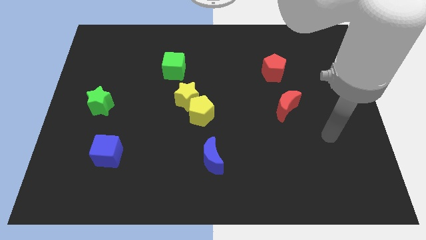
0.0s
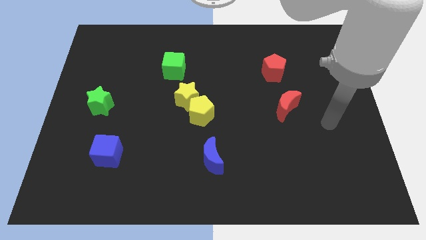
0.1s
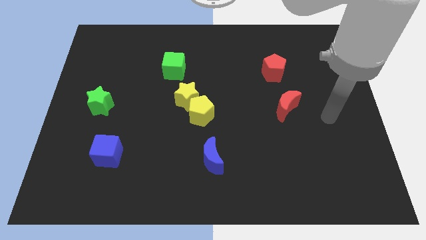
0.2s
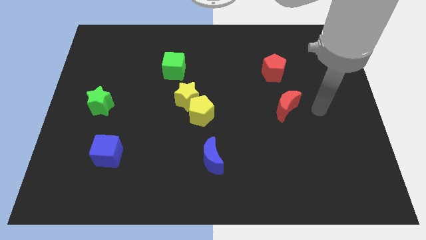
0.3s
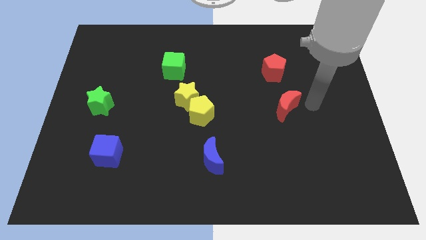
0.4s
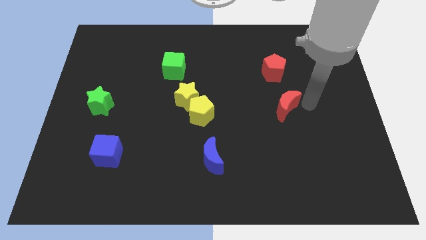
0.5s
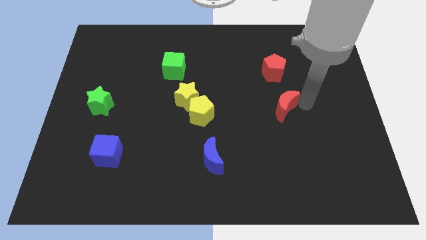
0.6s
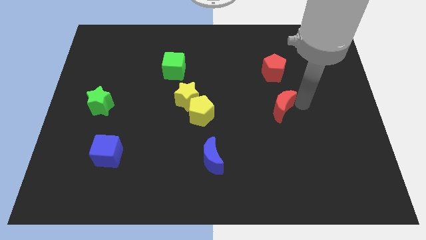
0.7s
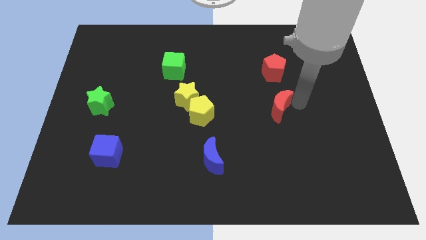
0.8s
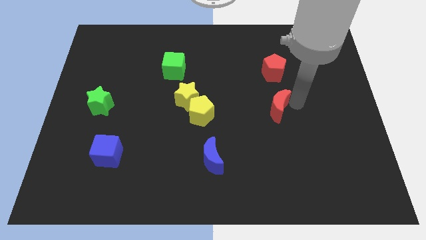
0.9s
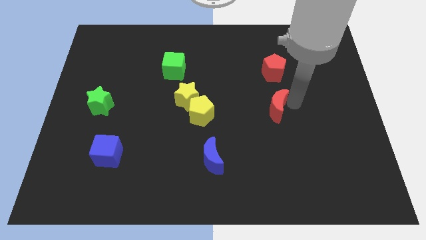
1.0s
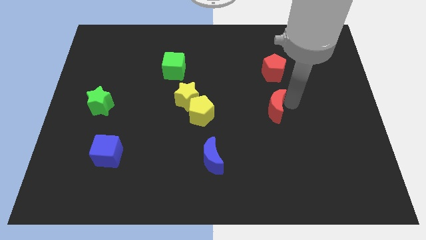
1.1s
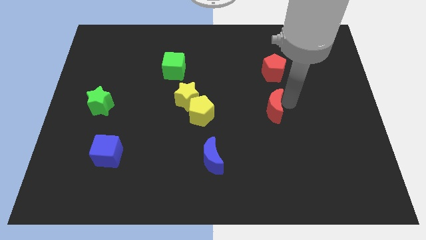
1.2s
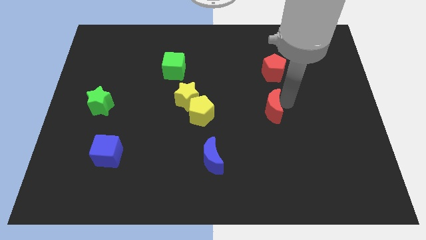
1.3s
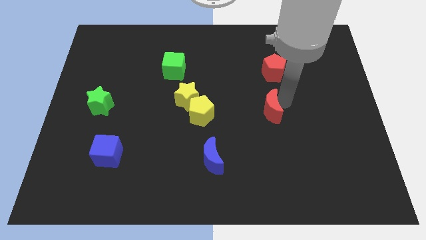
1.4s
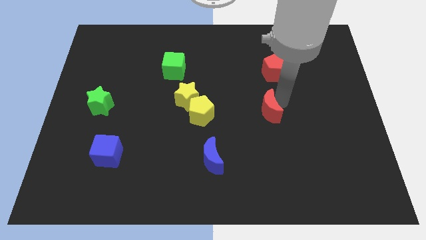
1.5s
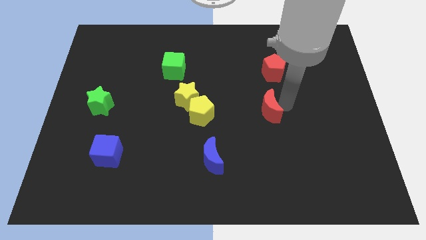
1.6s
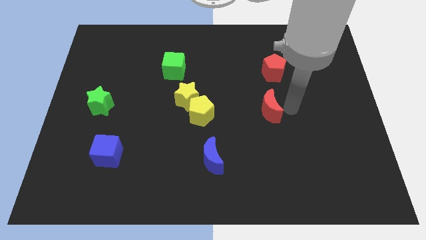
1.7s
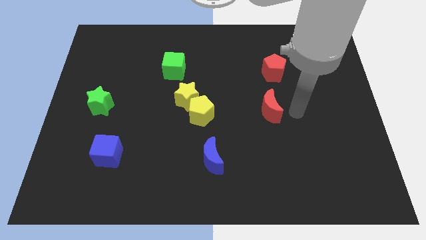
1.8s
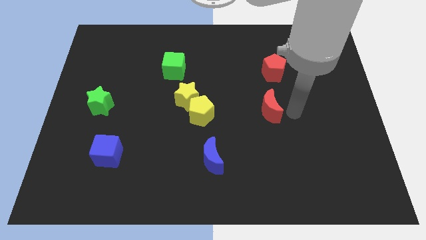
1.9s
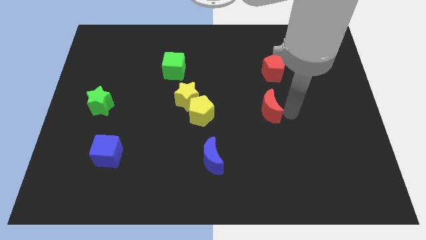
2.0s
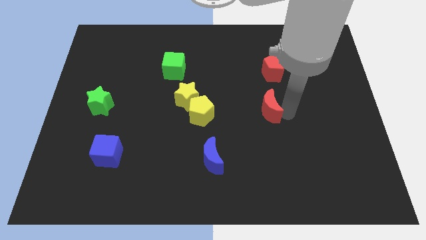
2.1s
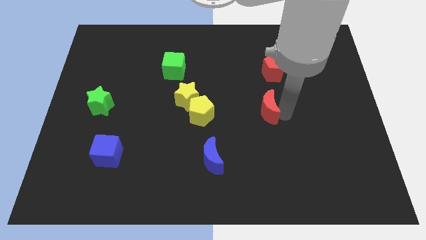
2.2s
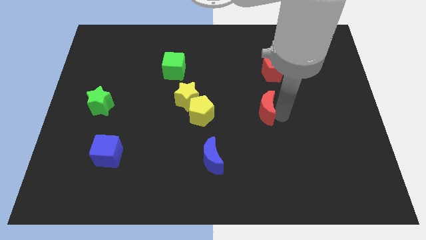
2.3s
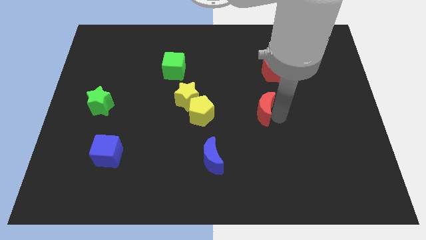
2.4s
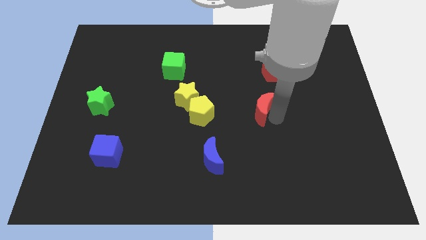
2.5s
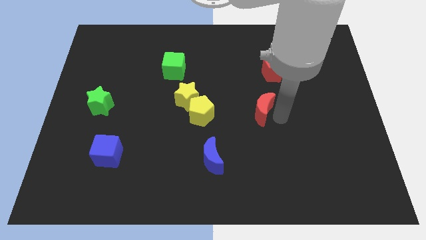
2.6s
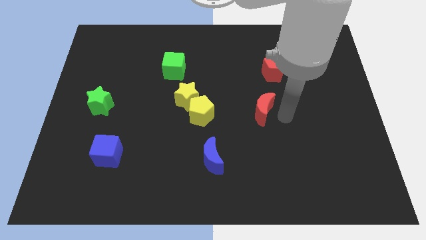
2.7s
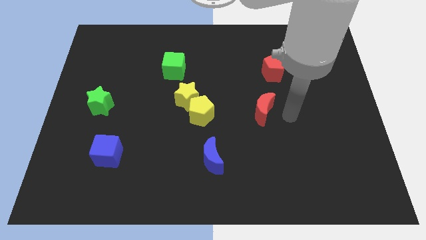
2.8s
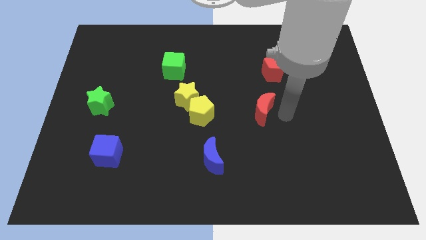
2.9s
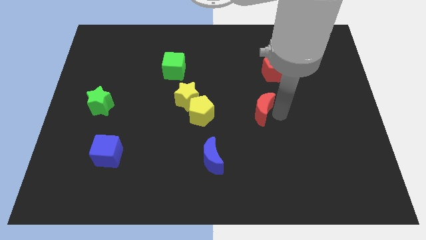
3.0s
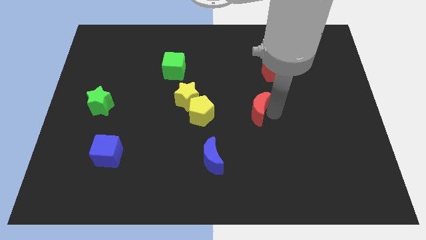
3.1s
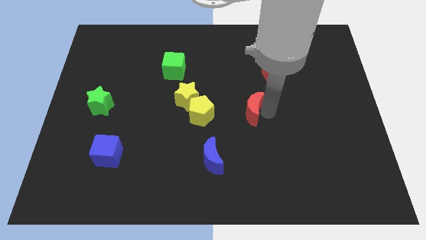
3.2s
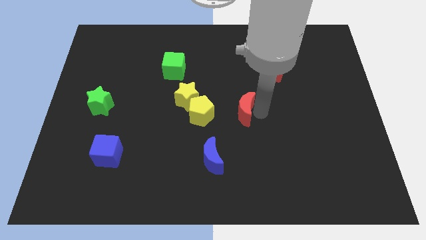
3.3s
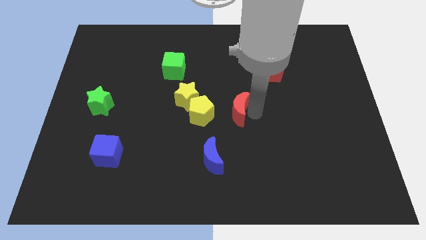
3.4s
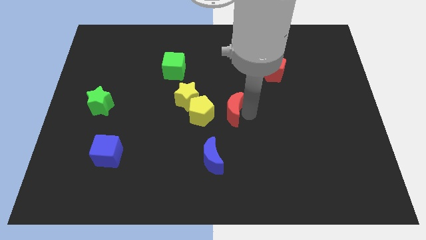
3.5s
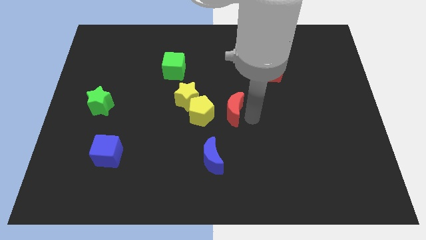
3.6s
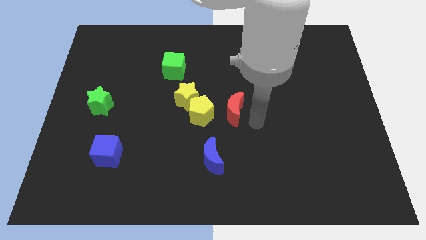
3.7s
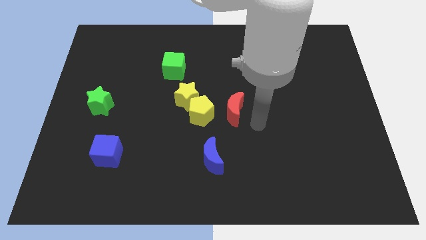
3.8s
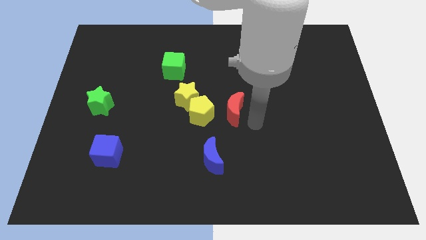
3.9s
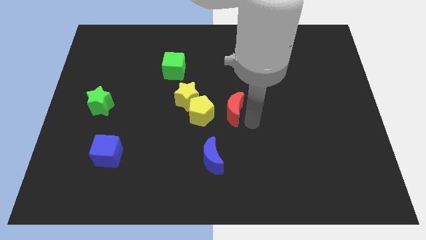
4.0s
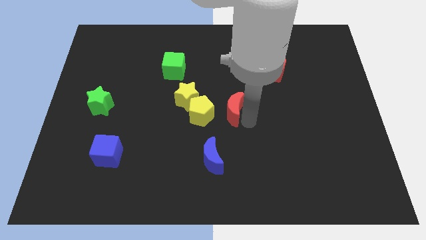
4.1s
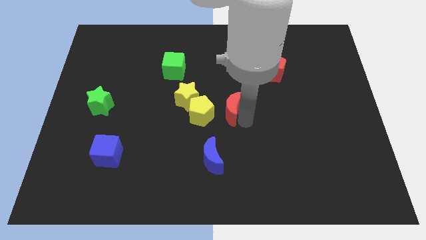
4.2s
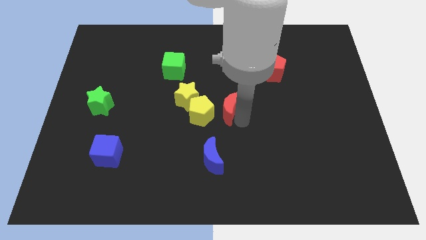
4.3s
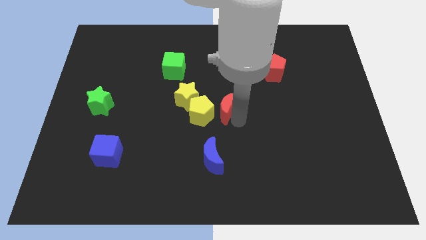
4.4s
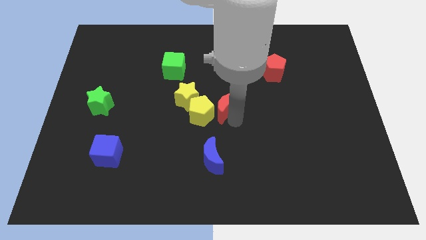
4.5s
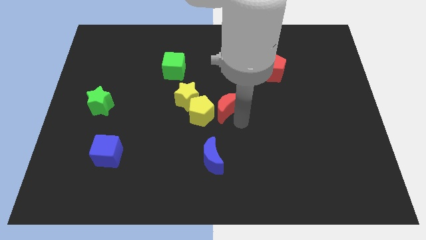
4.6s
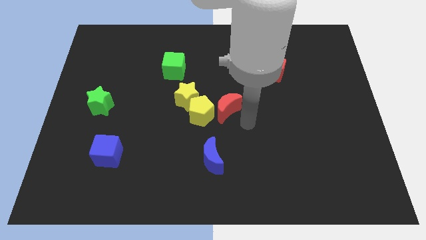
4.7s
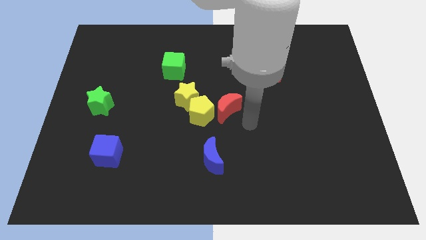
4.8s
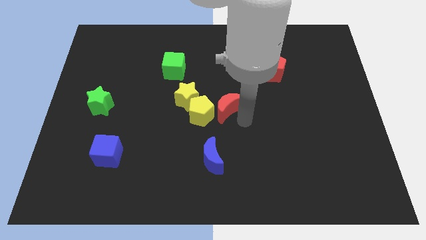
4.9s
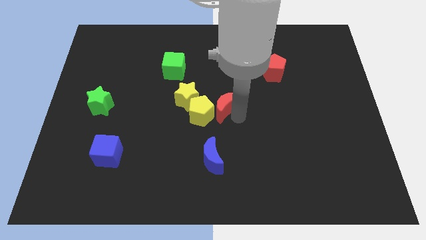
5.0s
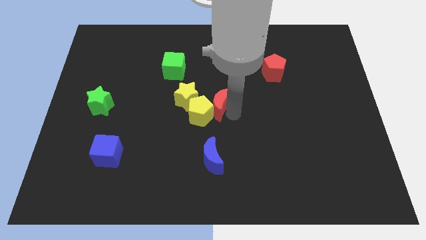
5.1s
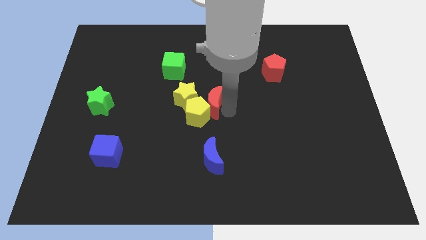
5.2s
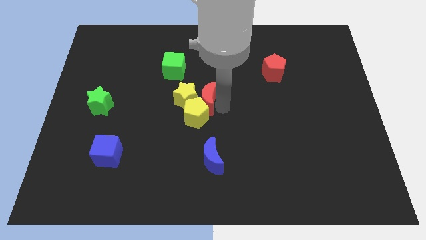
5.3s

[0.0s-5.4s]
slide the red moon next to the yellow star

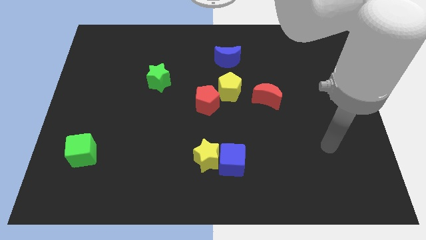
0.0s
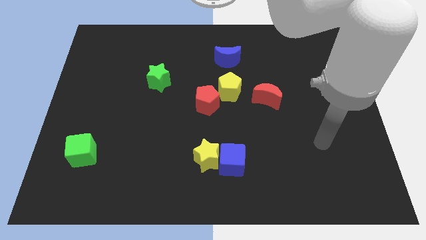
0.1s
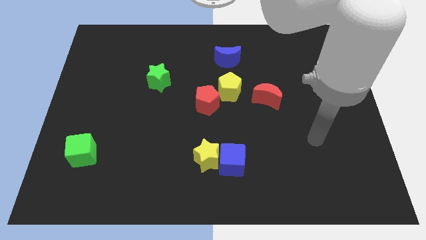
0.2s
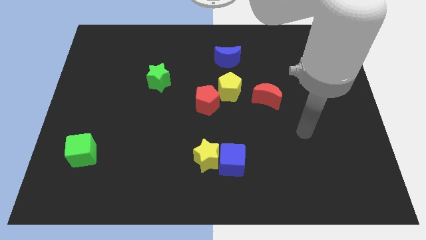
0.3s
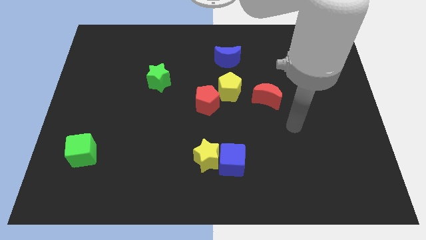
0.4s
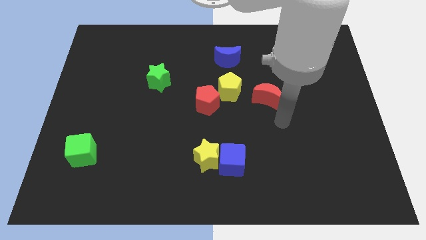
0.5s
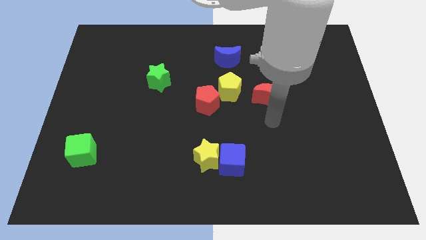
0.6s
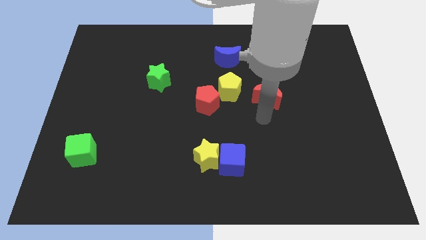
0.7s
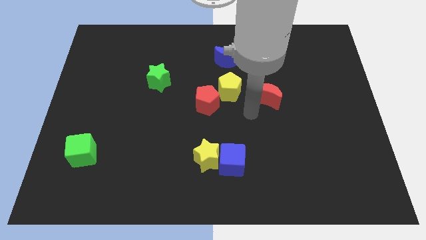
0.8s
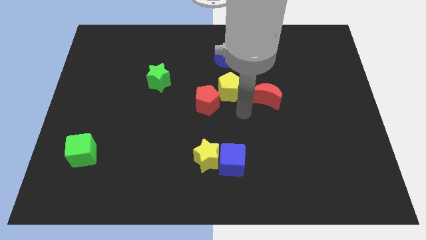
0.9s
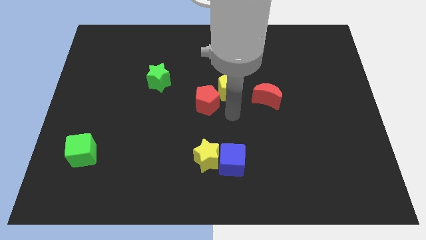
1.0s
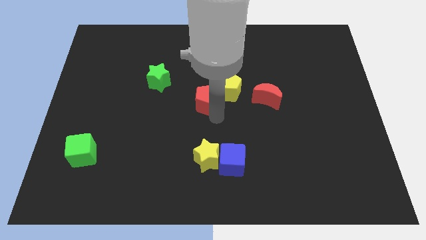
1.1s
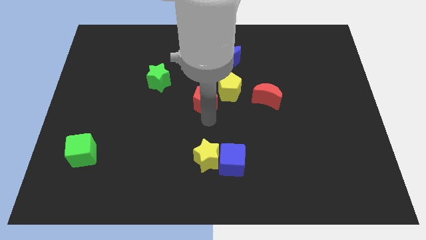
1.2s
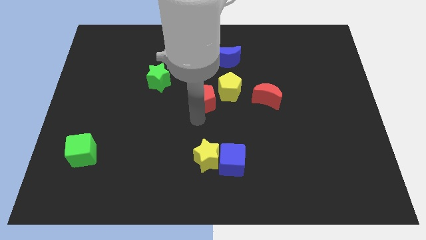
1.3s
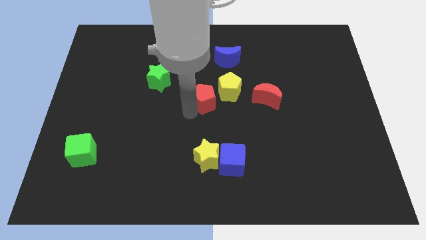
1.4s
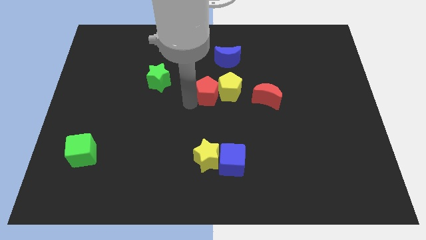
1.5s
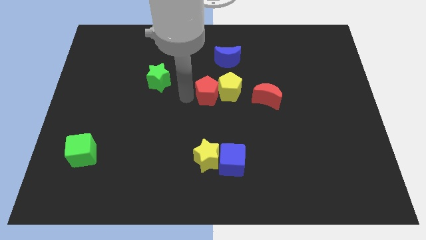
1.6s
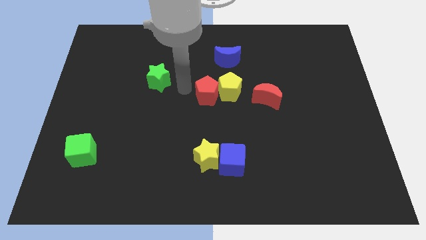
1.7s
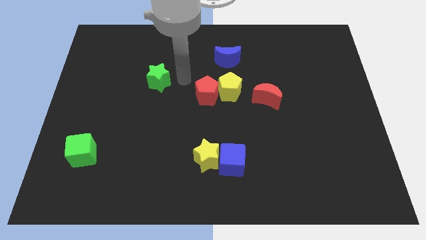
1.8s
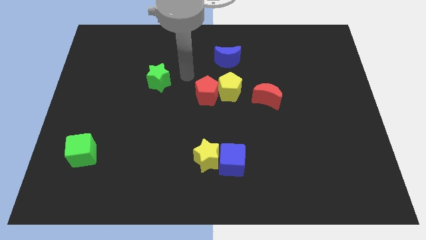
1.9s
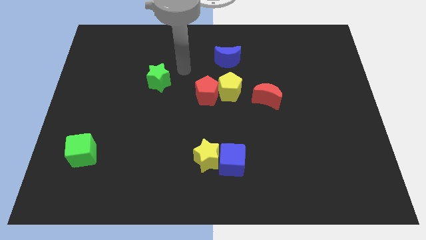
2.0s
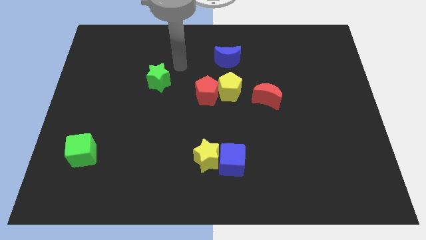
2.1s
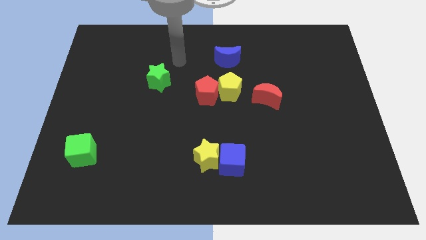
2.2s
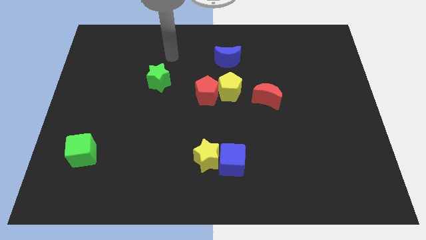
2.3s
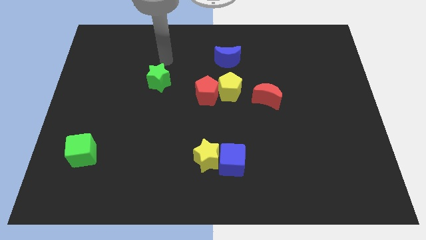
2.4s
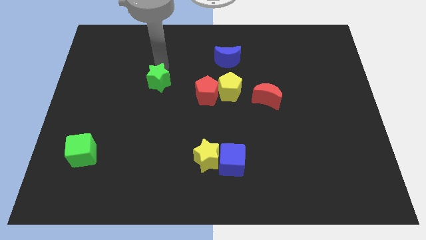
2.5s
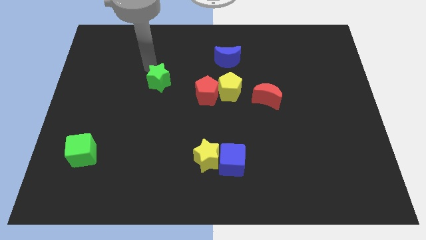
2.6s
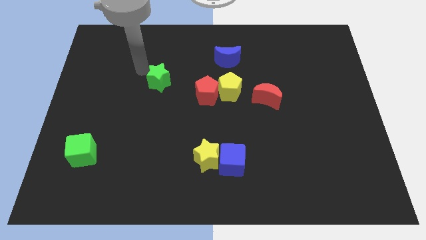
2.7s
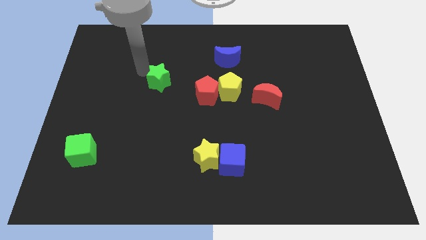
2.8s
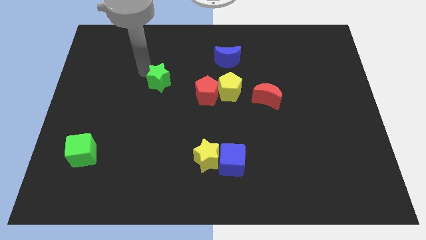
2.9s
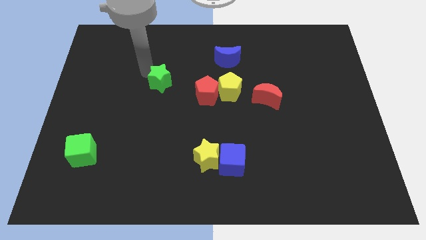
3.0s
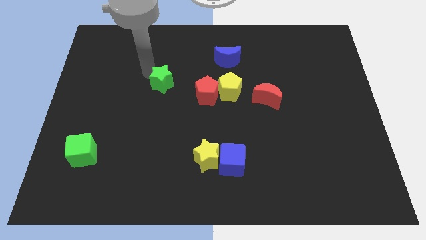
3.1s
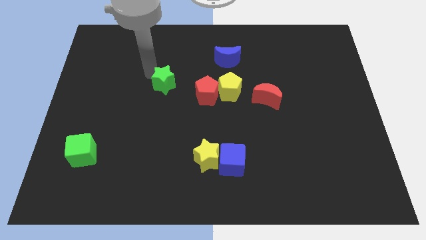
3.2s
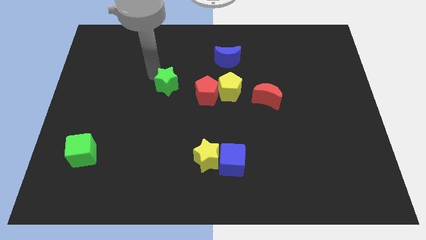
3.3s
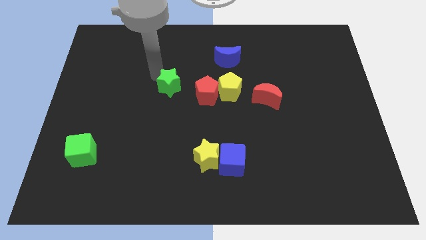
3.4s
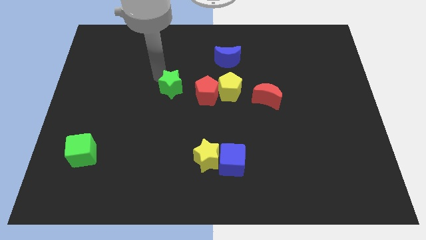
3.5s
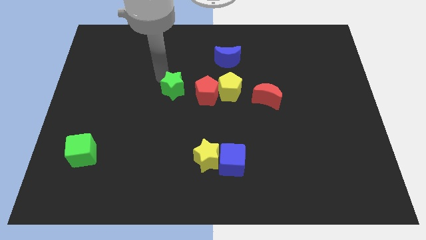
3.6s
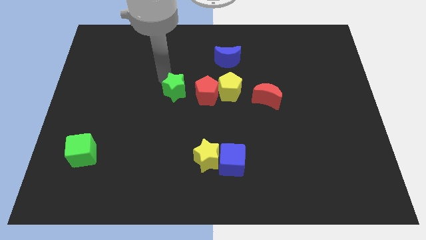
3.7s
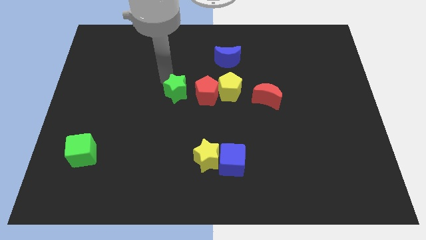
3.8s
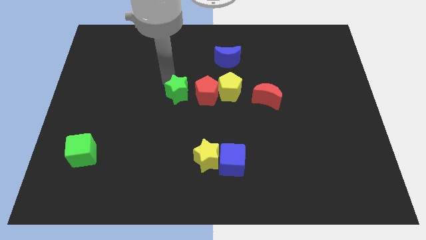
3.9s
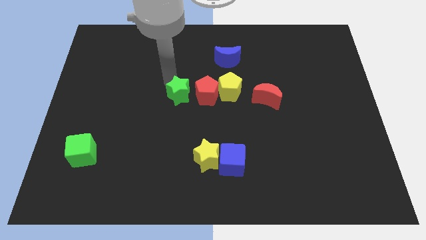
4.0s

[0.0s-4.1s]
put the green star close to the red pentagon
